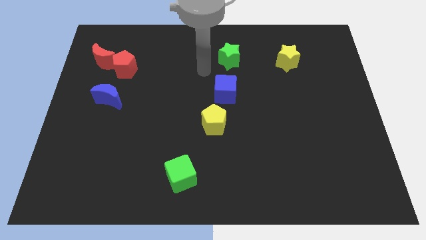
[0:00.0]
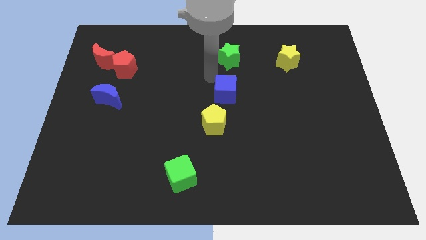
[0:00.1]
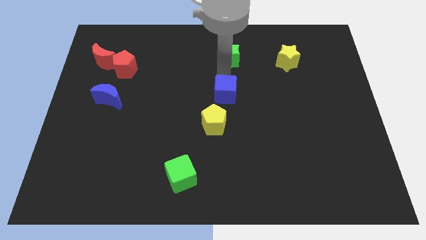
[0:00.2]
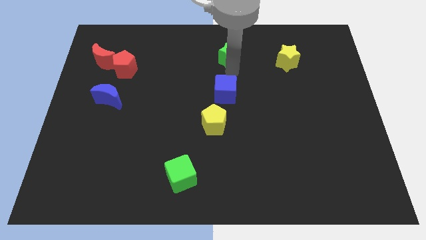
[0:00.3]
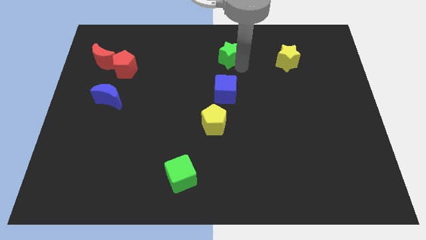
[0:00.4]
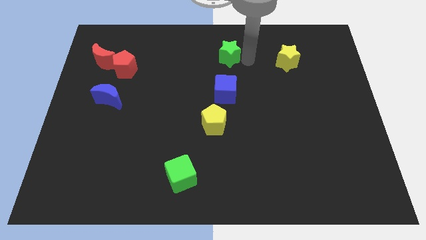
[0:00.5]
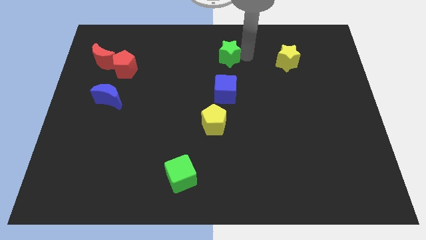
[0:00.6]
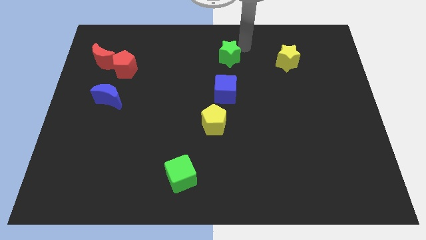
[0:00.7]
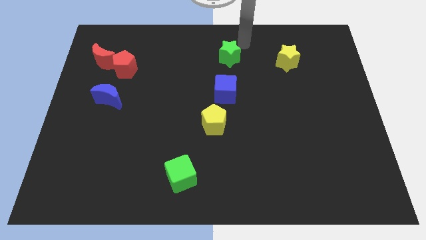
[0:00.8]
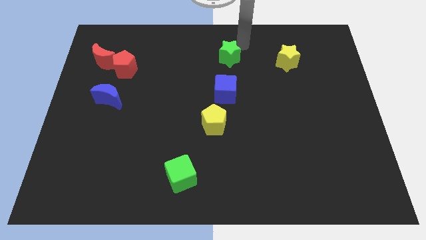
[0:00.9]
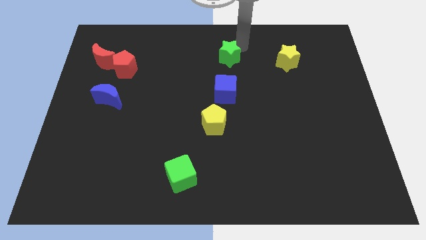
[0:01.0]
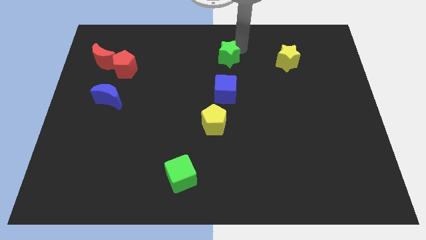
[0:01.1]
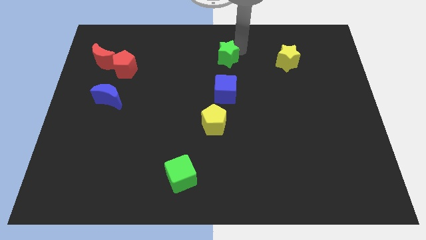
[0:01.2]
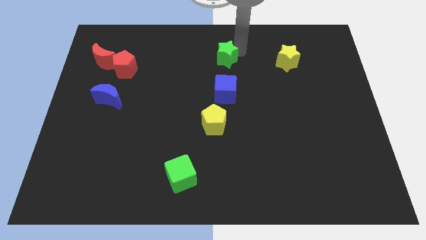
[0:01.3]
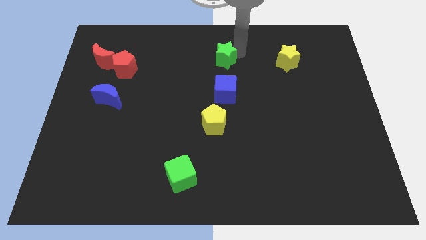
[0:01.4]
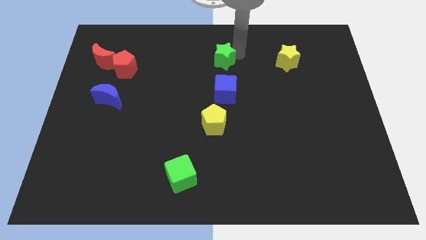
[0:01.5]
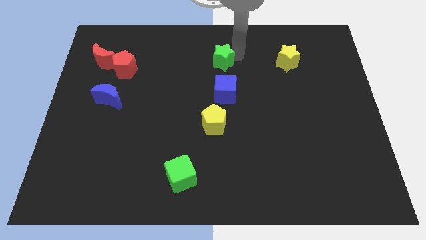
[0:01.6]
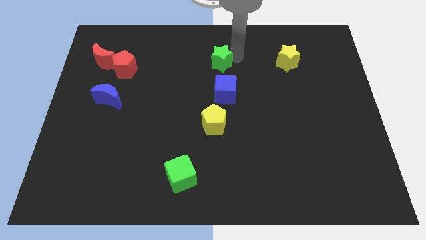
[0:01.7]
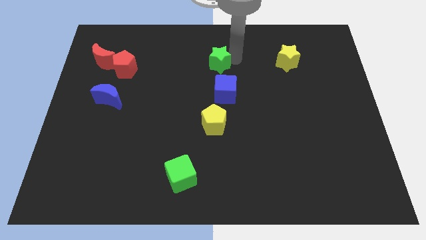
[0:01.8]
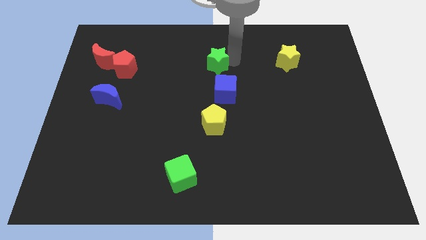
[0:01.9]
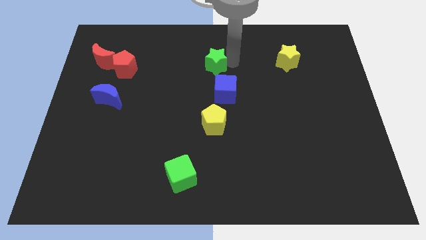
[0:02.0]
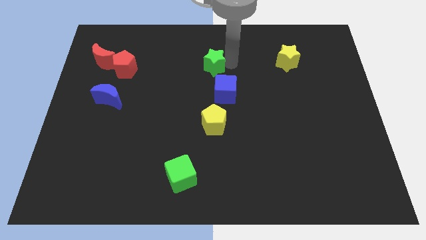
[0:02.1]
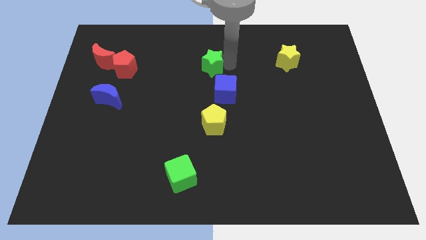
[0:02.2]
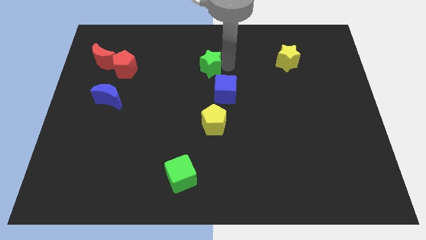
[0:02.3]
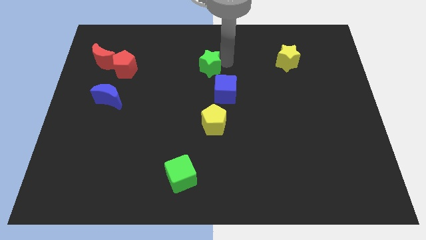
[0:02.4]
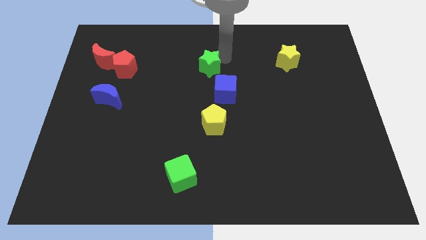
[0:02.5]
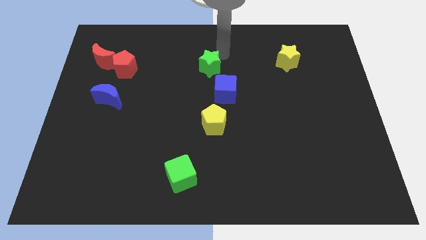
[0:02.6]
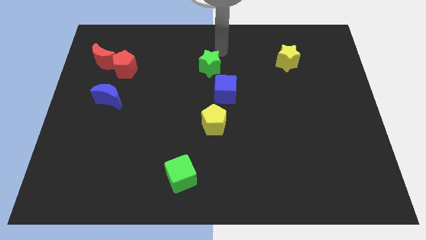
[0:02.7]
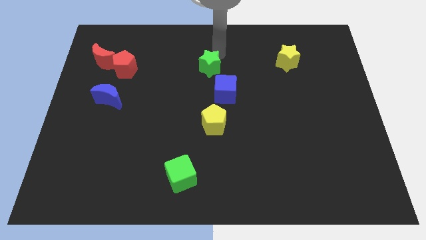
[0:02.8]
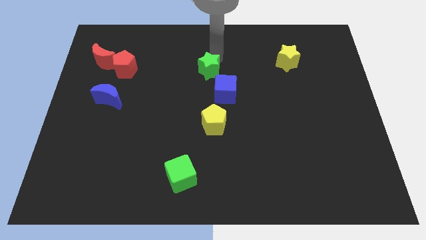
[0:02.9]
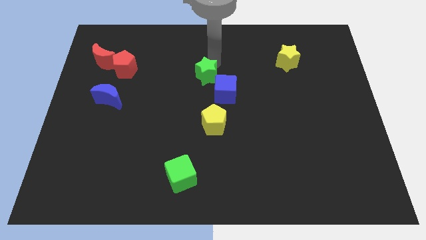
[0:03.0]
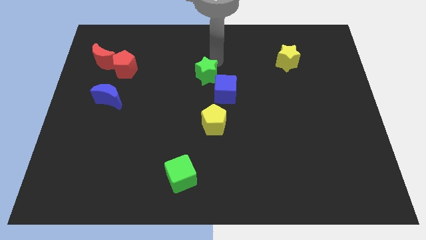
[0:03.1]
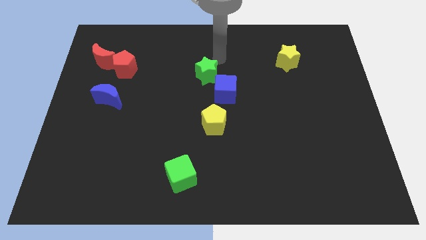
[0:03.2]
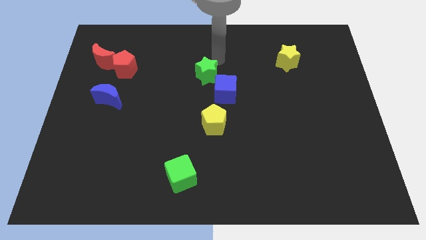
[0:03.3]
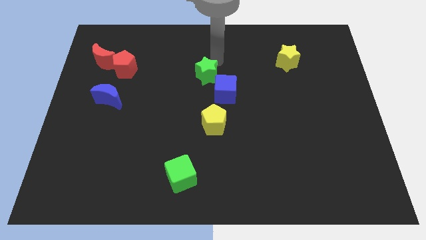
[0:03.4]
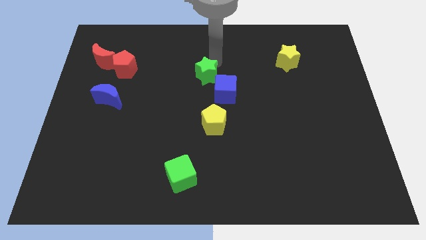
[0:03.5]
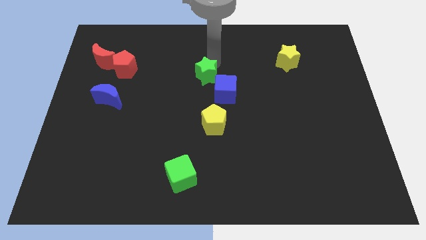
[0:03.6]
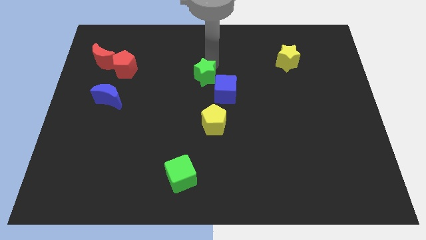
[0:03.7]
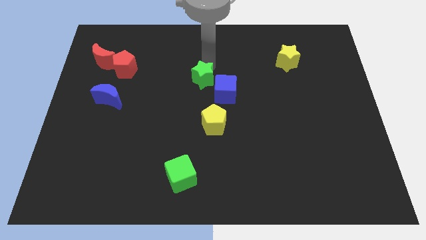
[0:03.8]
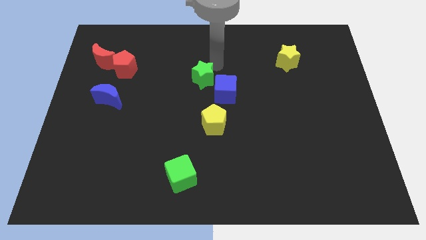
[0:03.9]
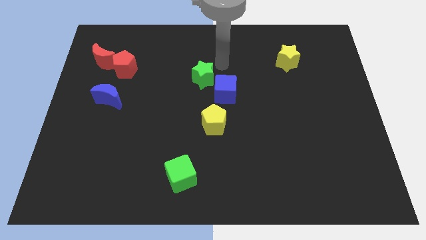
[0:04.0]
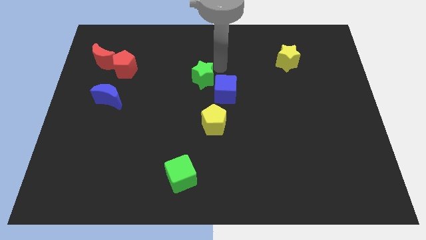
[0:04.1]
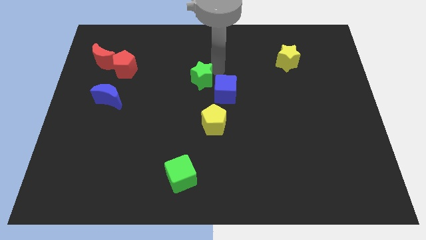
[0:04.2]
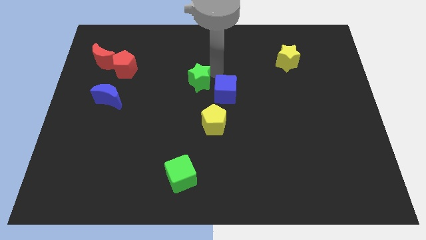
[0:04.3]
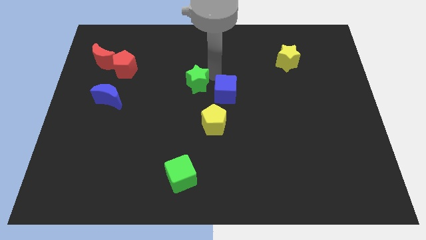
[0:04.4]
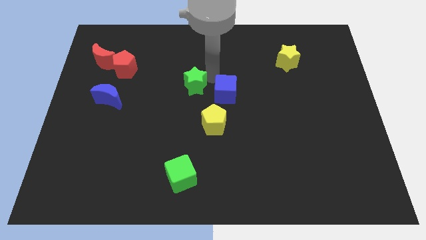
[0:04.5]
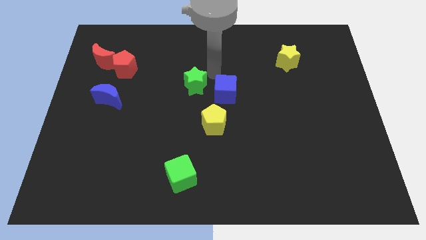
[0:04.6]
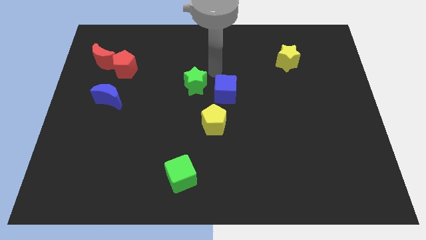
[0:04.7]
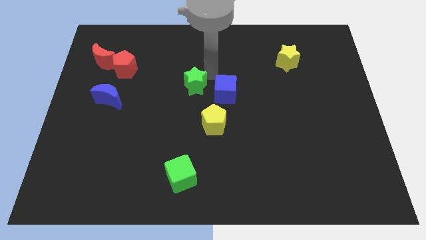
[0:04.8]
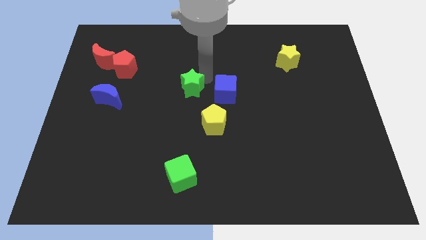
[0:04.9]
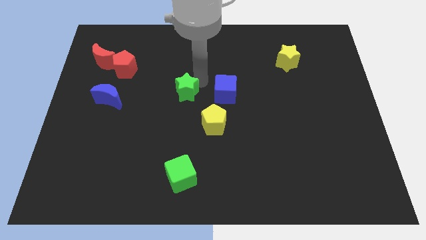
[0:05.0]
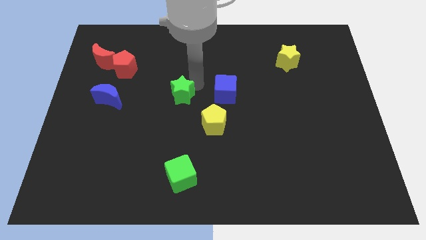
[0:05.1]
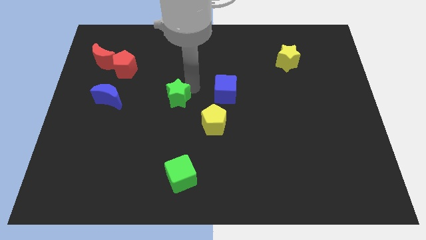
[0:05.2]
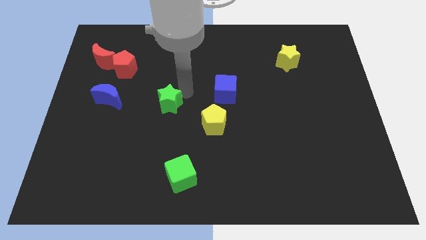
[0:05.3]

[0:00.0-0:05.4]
push the green star down and then left

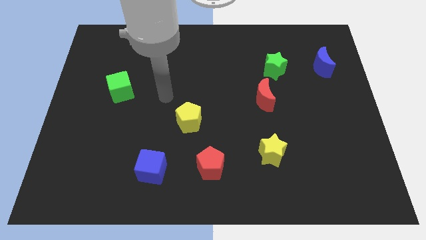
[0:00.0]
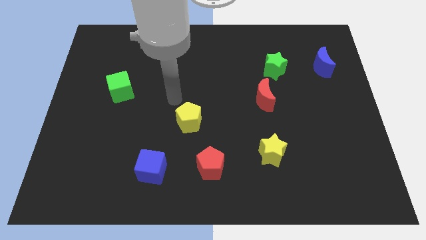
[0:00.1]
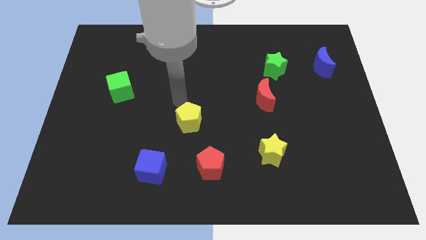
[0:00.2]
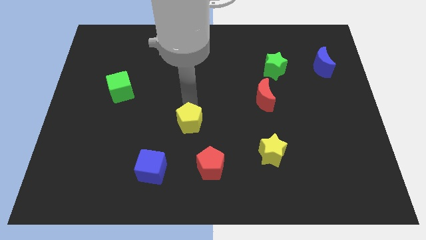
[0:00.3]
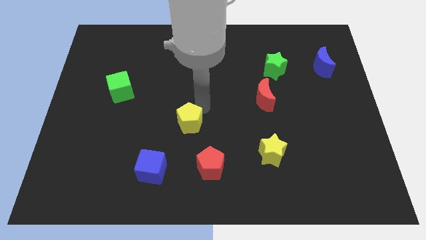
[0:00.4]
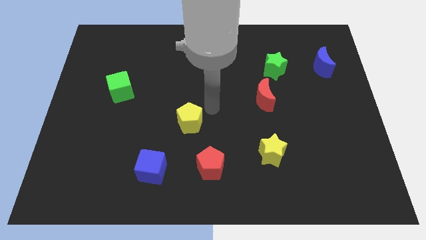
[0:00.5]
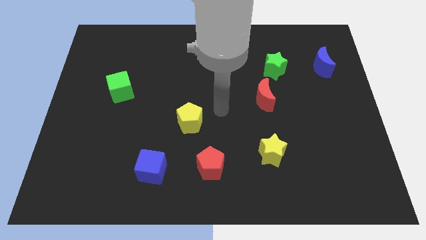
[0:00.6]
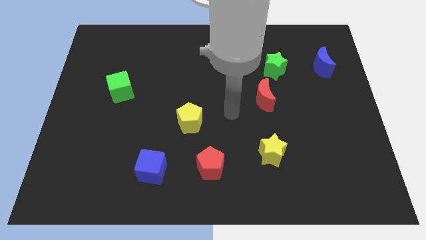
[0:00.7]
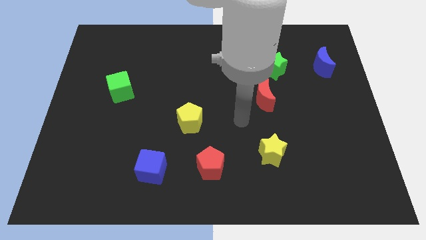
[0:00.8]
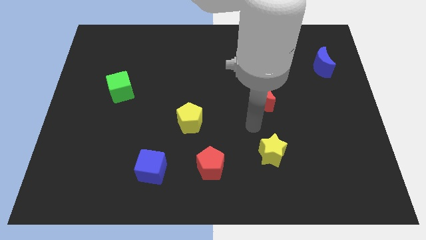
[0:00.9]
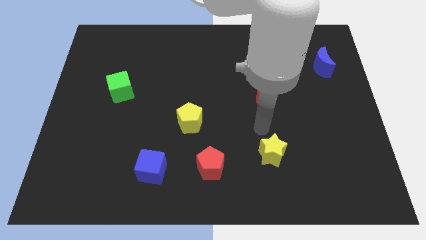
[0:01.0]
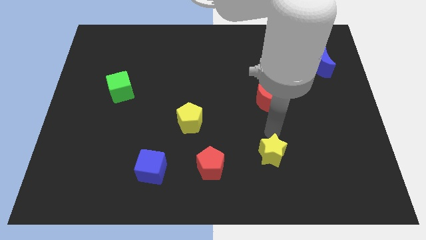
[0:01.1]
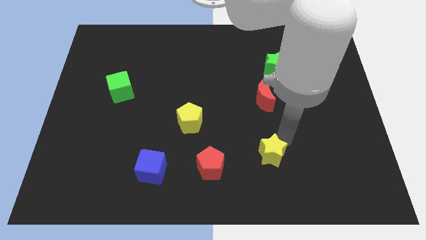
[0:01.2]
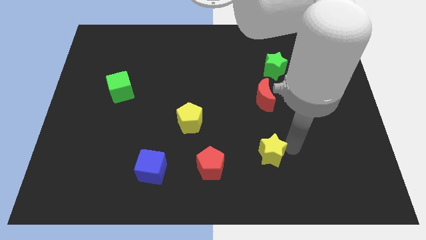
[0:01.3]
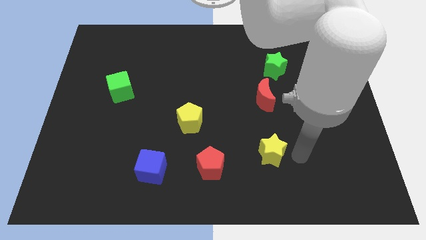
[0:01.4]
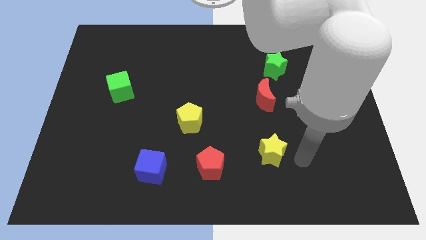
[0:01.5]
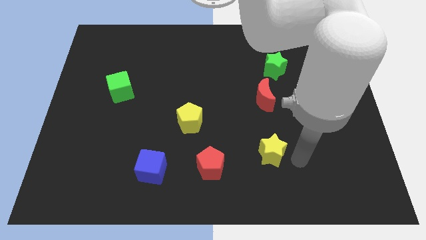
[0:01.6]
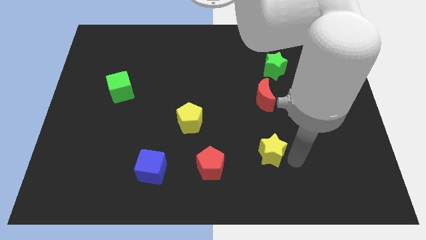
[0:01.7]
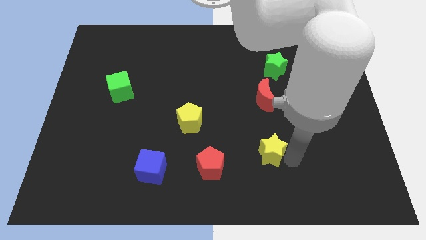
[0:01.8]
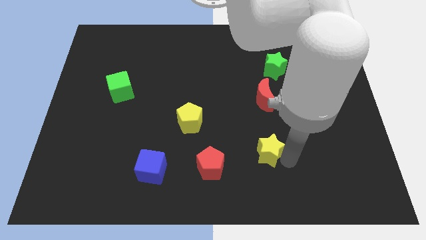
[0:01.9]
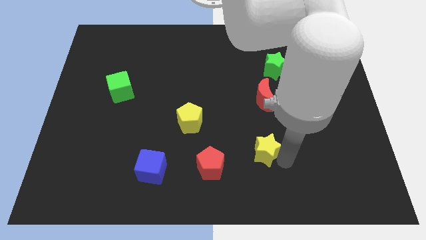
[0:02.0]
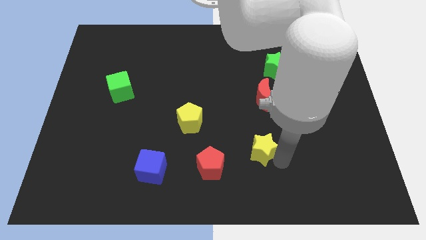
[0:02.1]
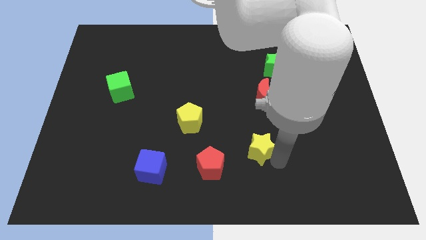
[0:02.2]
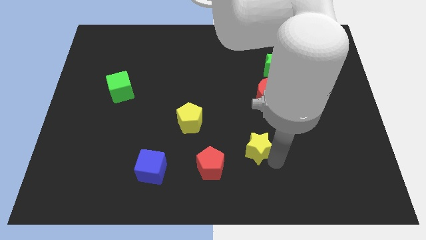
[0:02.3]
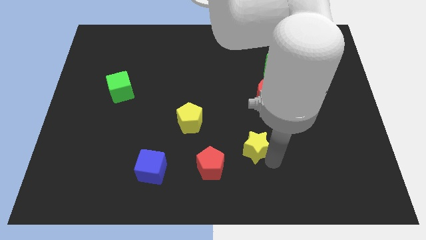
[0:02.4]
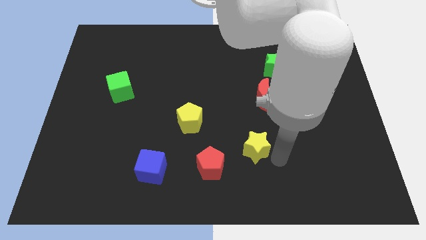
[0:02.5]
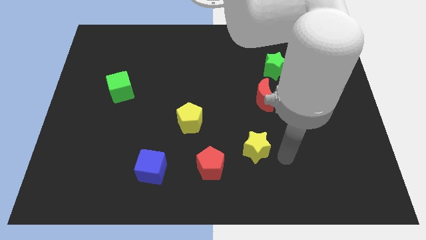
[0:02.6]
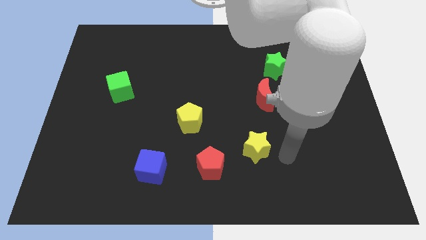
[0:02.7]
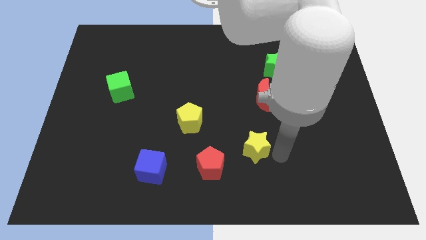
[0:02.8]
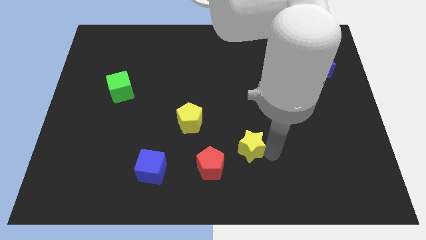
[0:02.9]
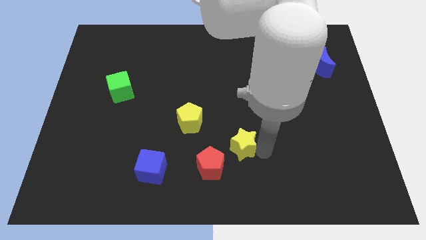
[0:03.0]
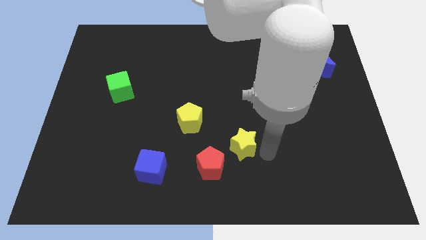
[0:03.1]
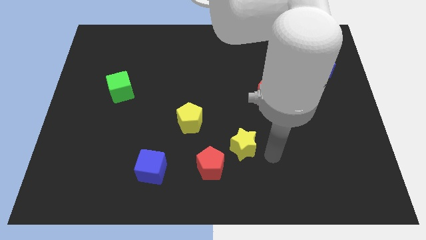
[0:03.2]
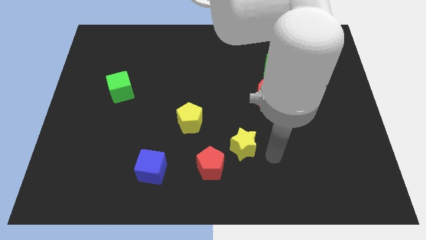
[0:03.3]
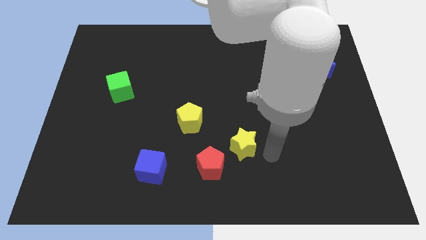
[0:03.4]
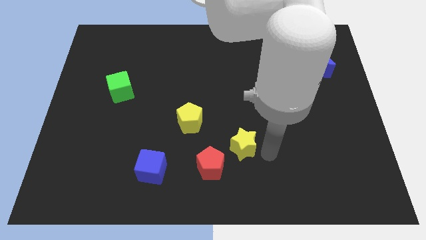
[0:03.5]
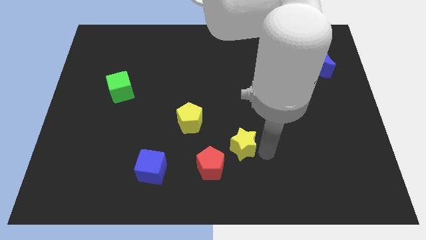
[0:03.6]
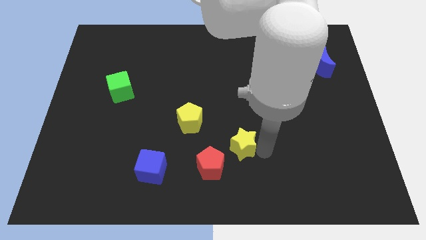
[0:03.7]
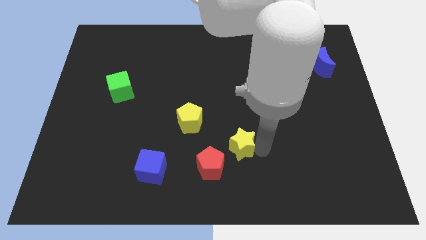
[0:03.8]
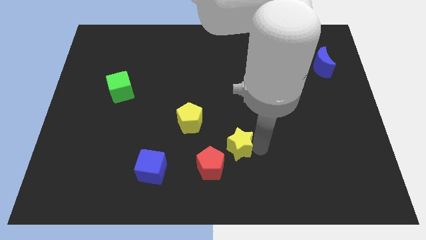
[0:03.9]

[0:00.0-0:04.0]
move the yellow star a bit left
